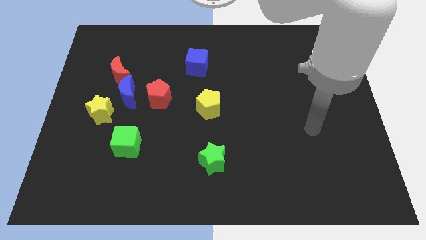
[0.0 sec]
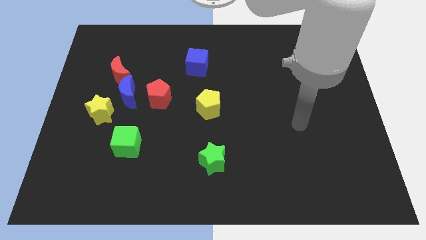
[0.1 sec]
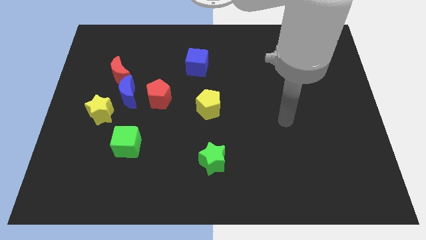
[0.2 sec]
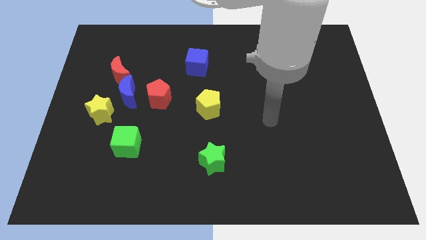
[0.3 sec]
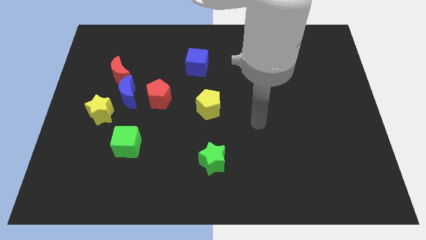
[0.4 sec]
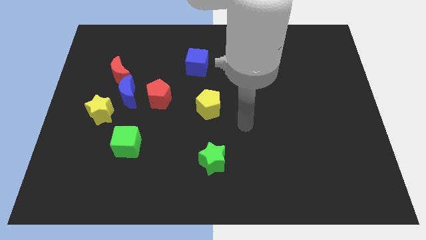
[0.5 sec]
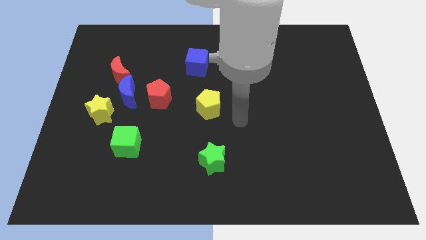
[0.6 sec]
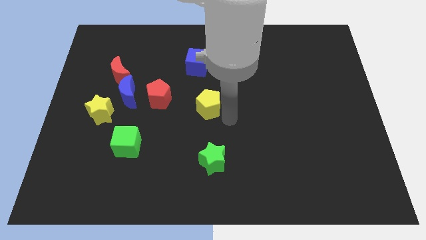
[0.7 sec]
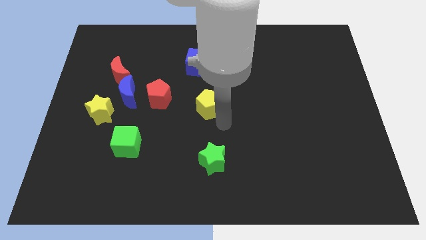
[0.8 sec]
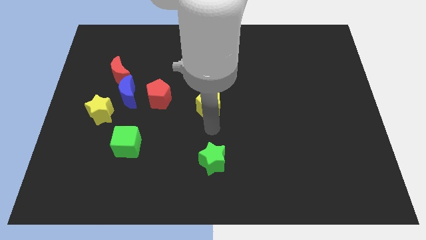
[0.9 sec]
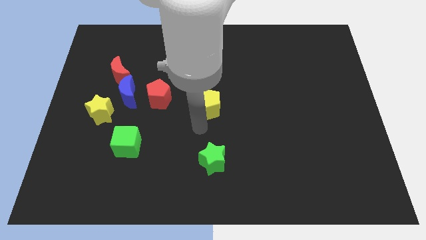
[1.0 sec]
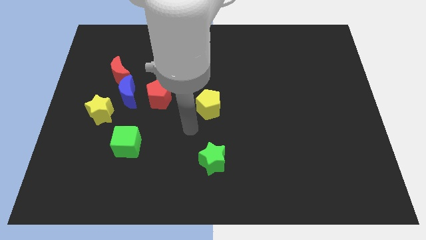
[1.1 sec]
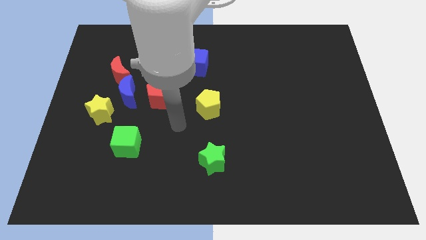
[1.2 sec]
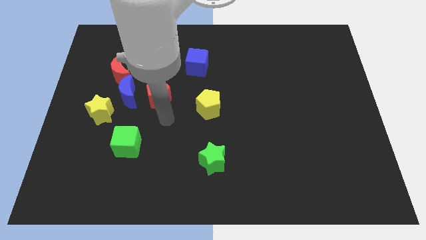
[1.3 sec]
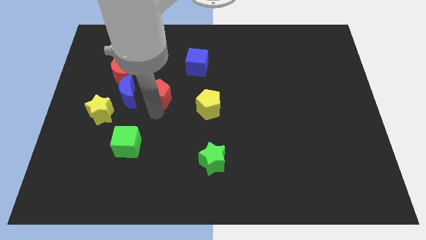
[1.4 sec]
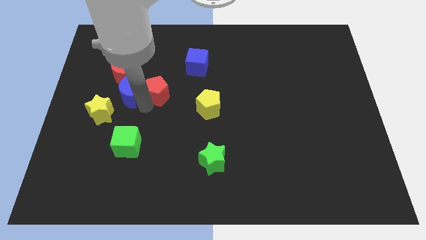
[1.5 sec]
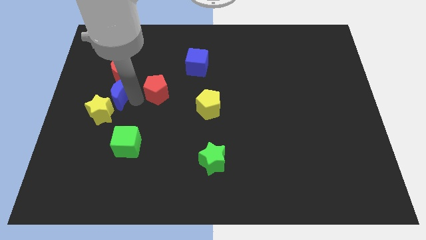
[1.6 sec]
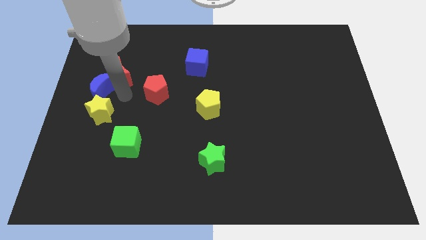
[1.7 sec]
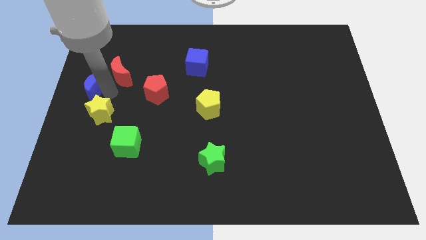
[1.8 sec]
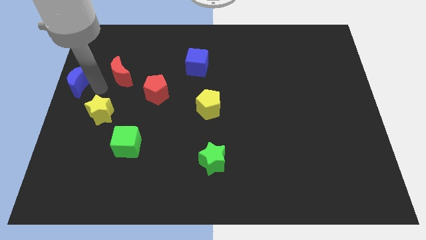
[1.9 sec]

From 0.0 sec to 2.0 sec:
move the red moon away from the blue moon

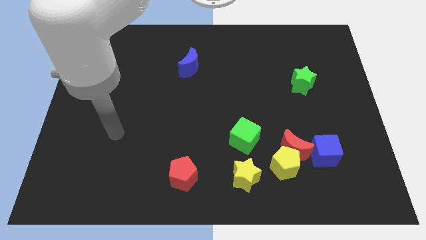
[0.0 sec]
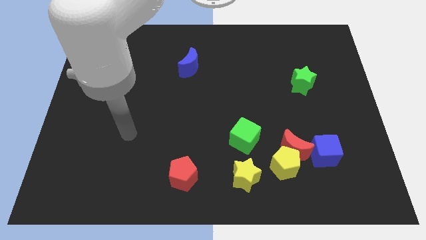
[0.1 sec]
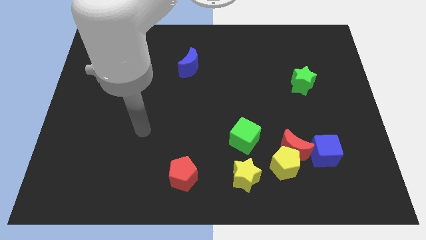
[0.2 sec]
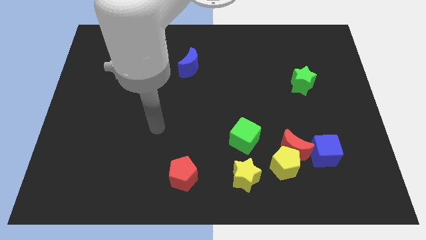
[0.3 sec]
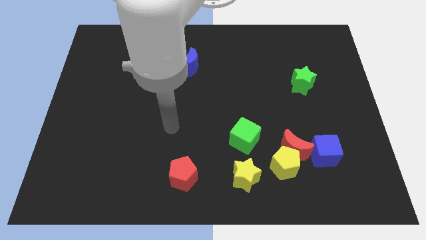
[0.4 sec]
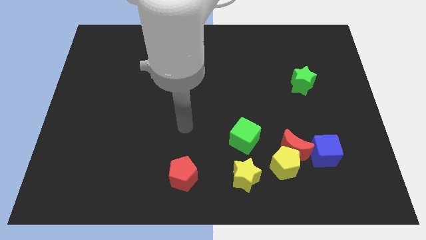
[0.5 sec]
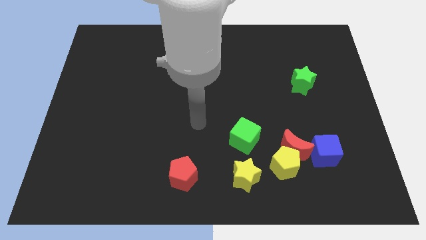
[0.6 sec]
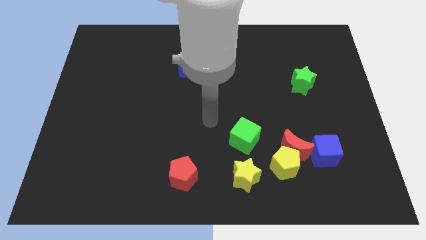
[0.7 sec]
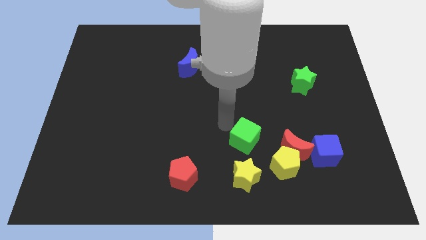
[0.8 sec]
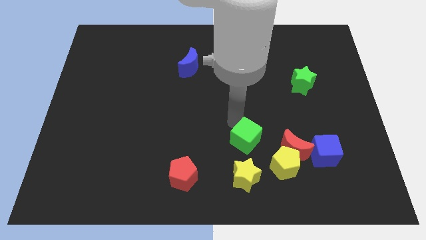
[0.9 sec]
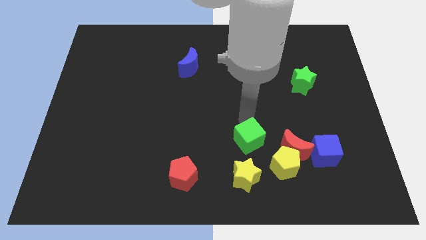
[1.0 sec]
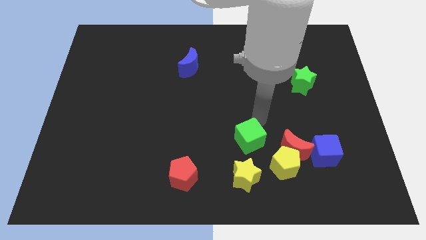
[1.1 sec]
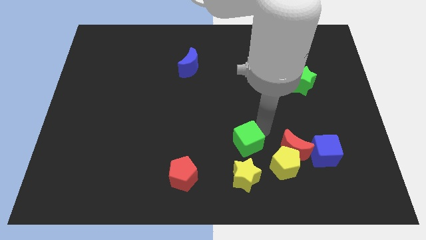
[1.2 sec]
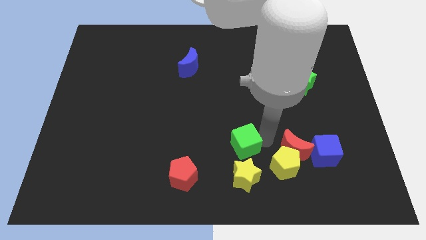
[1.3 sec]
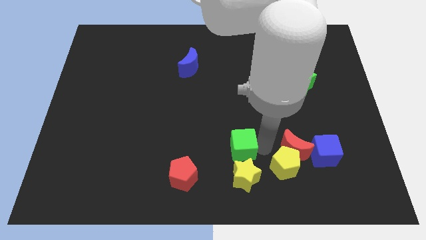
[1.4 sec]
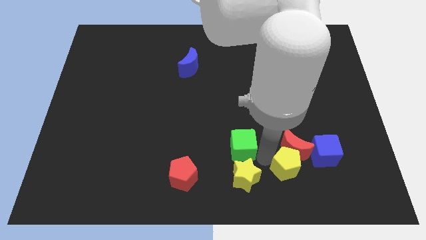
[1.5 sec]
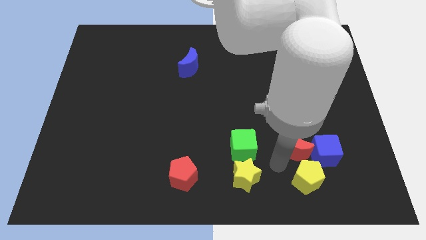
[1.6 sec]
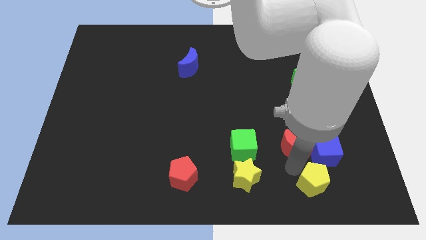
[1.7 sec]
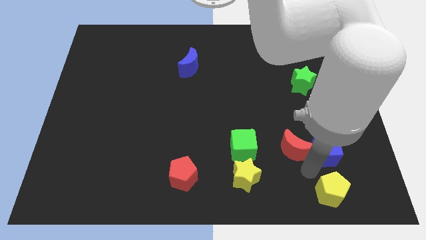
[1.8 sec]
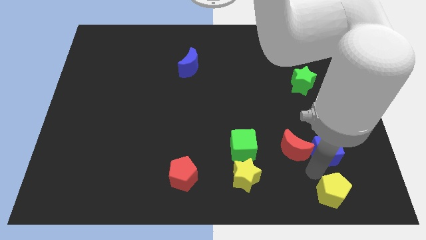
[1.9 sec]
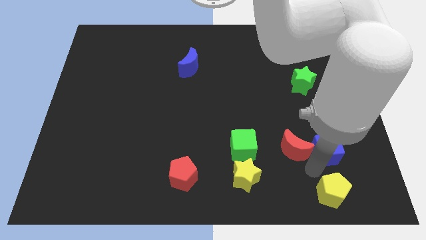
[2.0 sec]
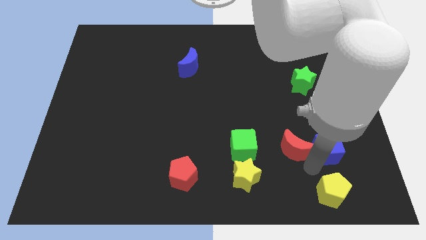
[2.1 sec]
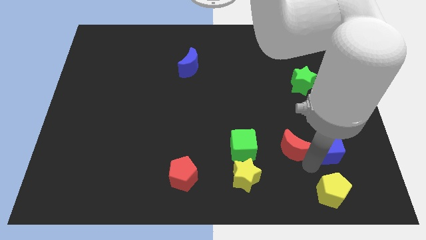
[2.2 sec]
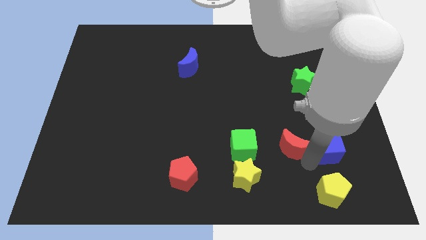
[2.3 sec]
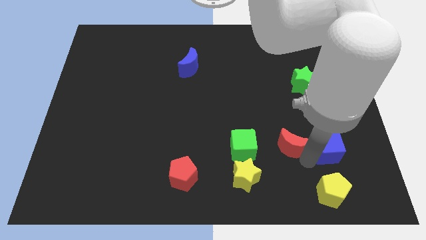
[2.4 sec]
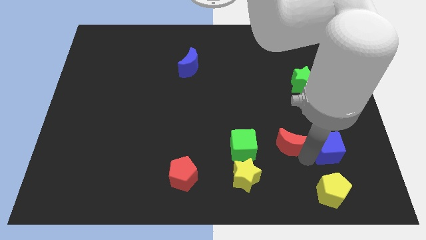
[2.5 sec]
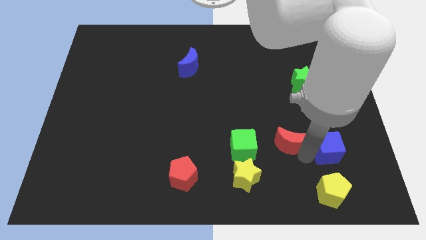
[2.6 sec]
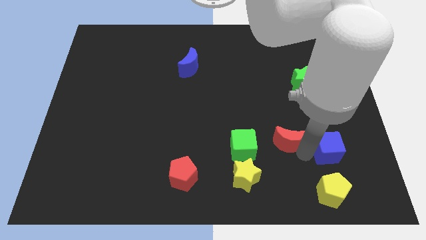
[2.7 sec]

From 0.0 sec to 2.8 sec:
pull the red moon apart from the yellow pentagon and blue cube

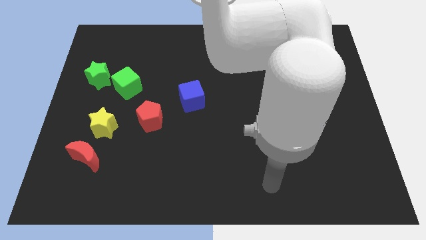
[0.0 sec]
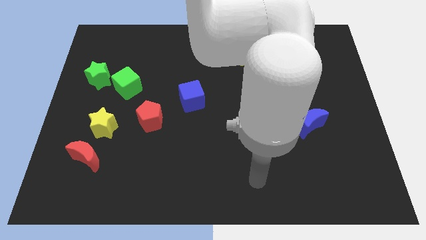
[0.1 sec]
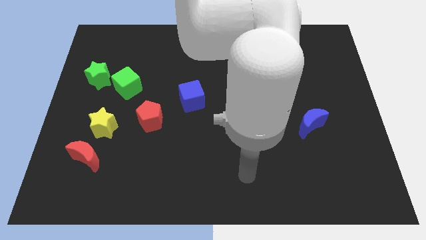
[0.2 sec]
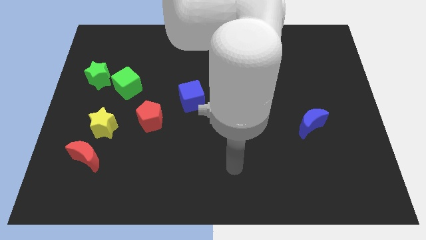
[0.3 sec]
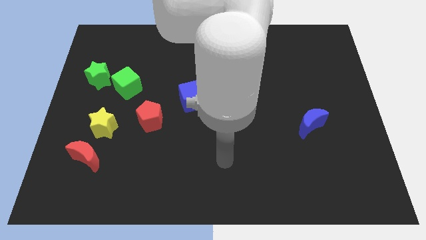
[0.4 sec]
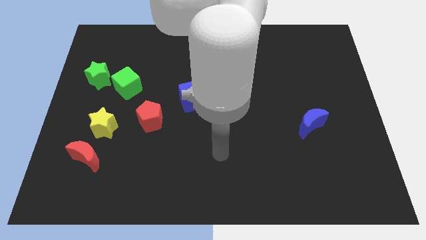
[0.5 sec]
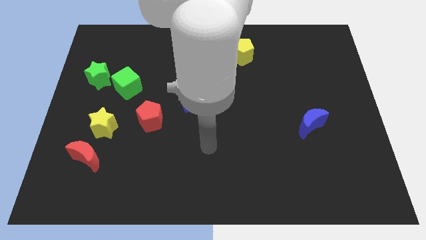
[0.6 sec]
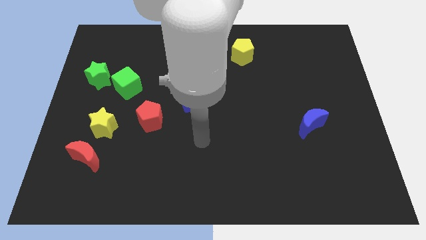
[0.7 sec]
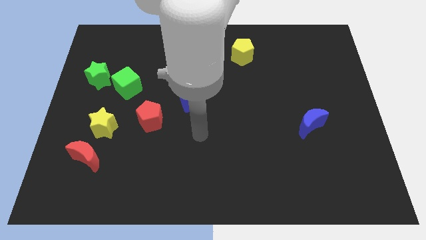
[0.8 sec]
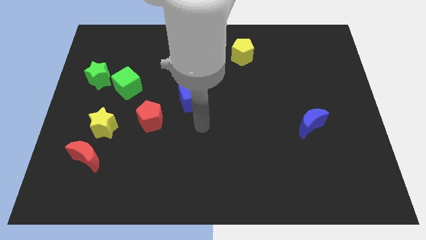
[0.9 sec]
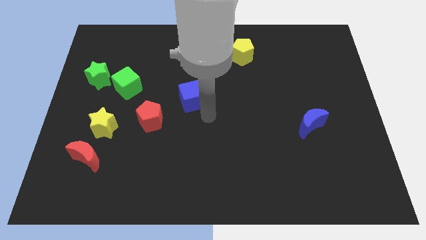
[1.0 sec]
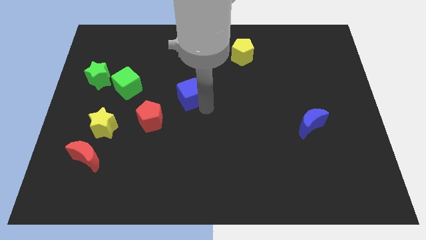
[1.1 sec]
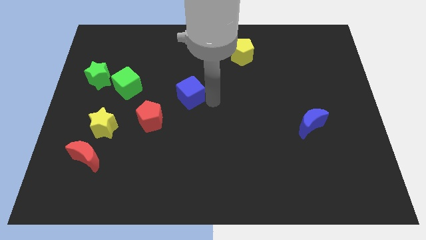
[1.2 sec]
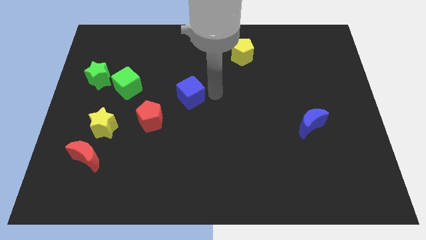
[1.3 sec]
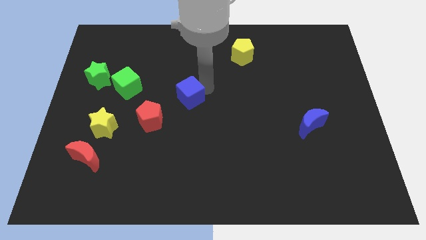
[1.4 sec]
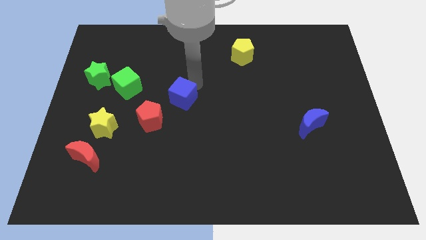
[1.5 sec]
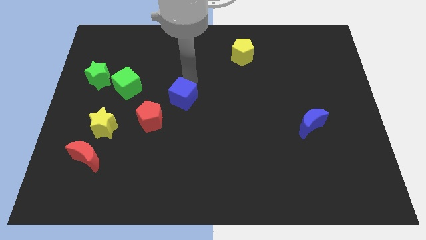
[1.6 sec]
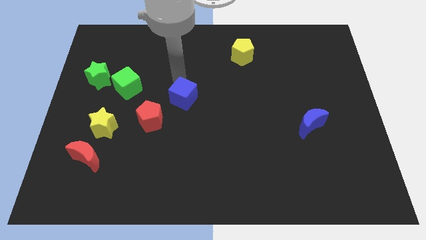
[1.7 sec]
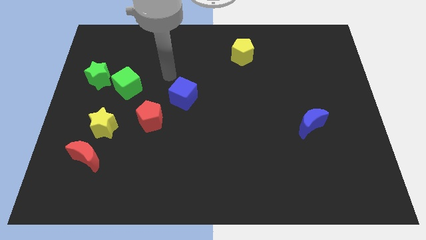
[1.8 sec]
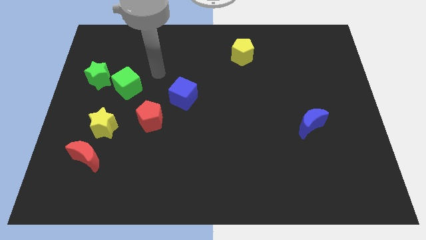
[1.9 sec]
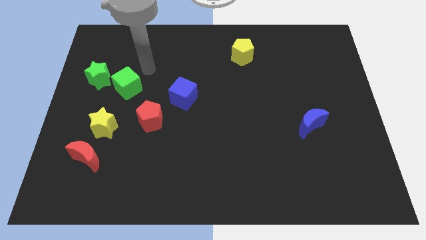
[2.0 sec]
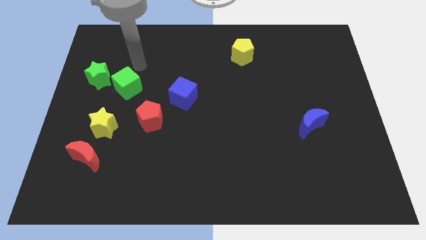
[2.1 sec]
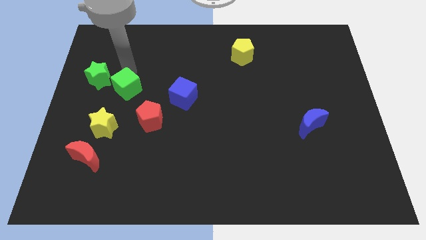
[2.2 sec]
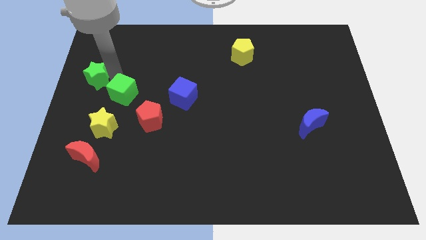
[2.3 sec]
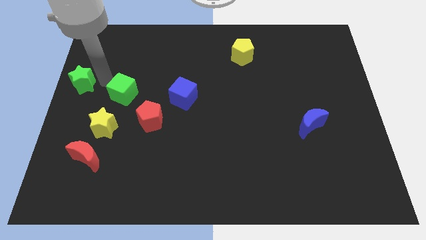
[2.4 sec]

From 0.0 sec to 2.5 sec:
pull the green cube apart from the green star

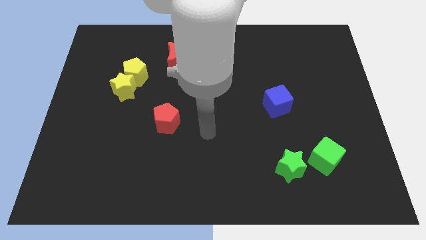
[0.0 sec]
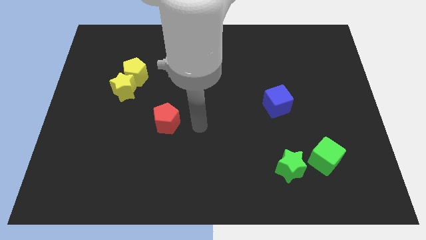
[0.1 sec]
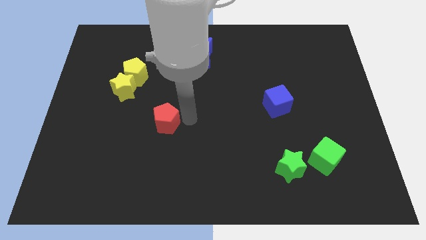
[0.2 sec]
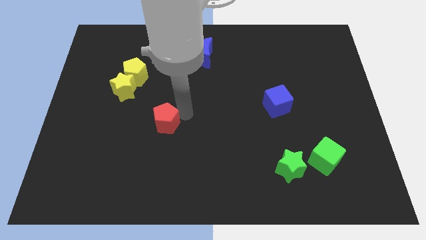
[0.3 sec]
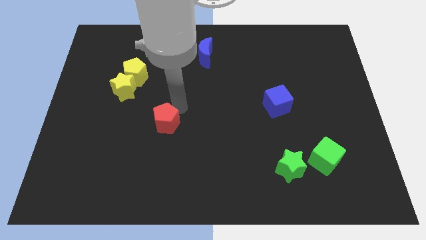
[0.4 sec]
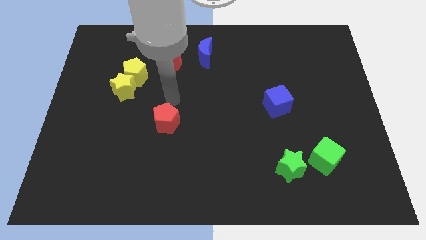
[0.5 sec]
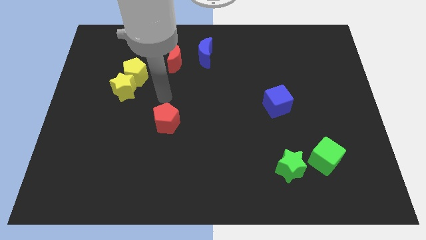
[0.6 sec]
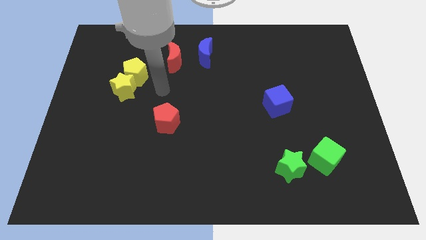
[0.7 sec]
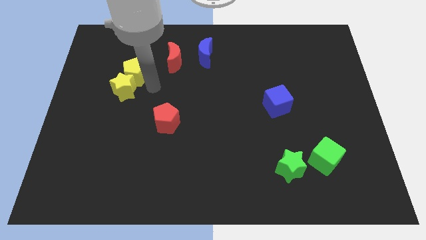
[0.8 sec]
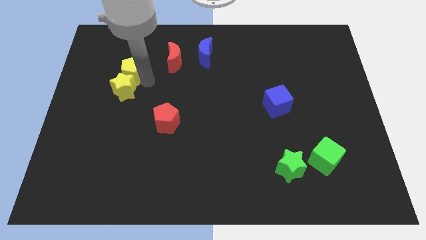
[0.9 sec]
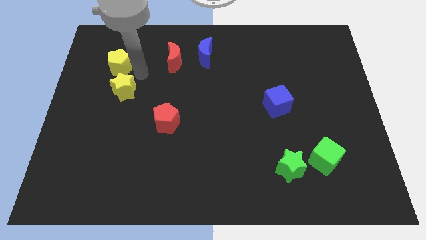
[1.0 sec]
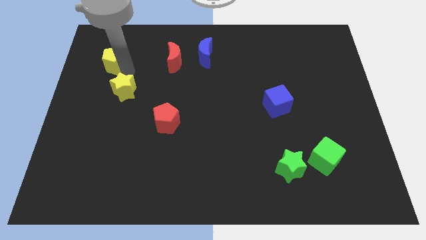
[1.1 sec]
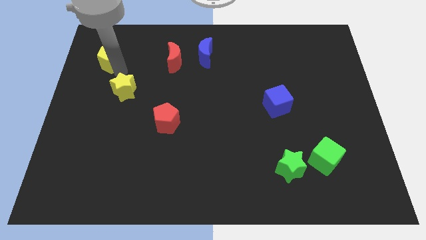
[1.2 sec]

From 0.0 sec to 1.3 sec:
separate the yellow star from the yellow pentagon

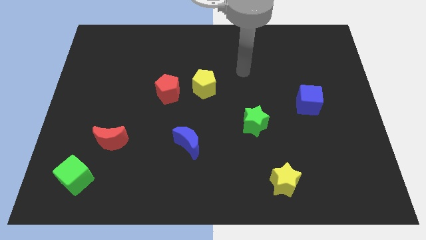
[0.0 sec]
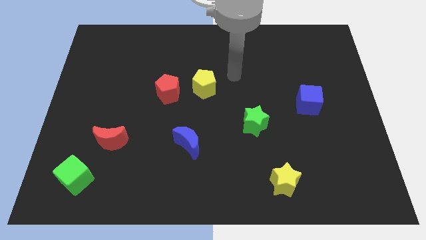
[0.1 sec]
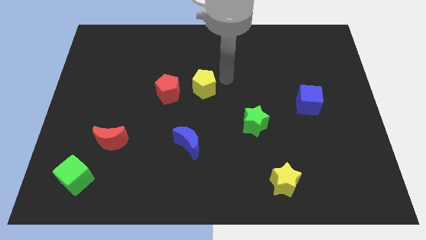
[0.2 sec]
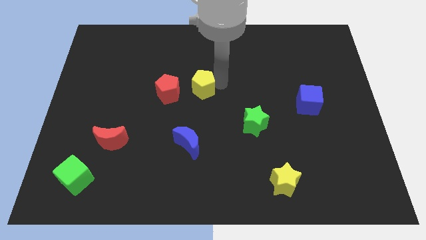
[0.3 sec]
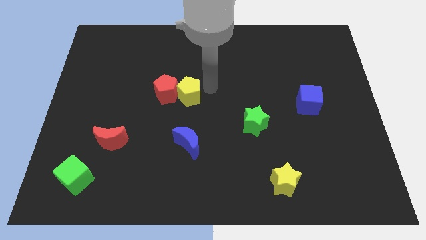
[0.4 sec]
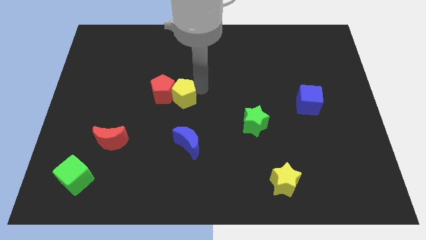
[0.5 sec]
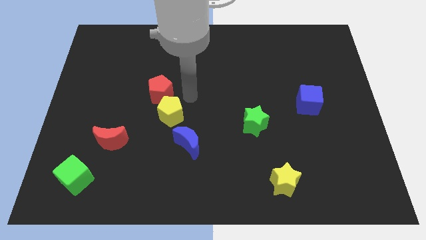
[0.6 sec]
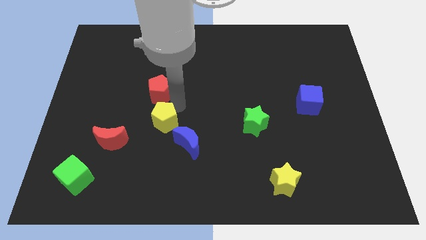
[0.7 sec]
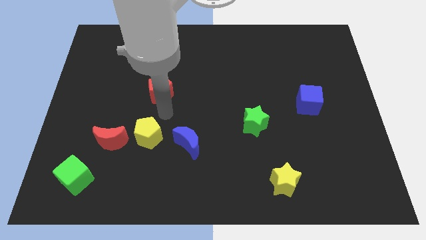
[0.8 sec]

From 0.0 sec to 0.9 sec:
pull the red pentagon apart from the yellow pentagon
